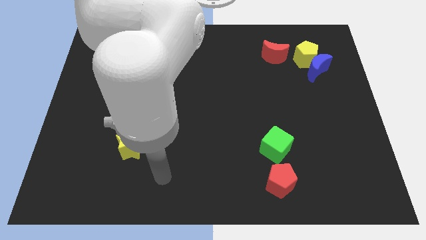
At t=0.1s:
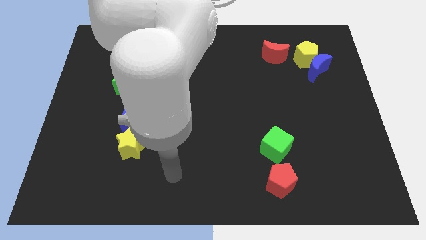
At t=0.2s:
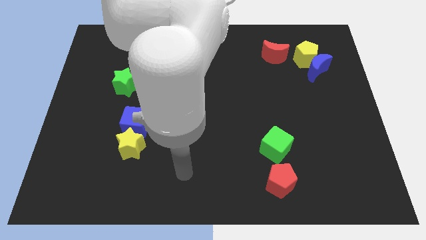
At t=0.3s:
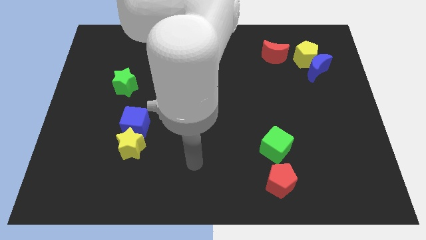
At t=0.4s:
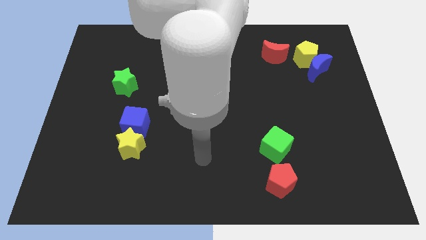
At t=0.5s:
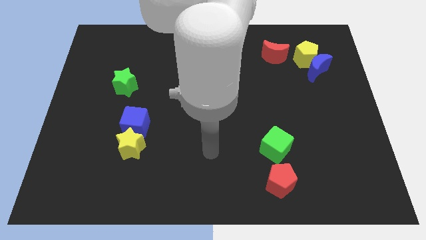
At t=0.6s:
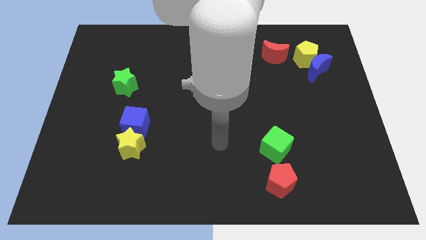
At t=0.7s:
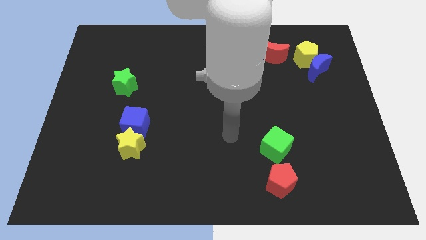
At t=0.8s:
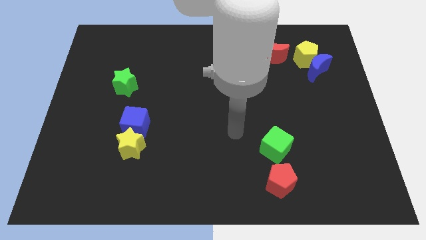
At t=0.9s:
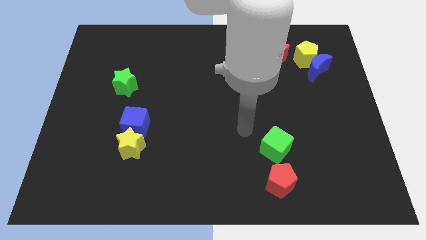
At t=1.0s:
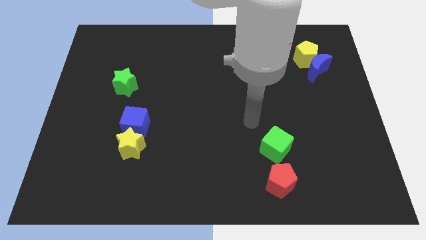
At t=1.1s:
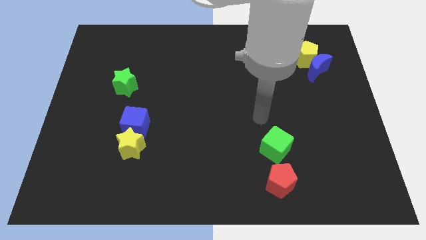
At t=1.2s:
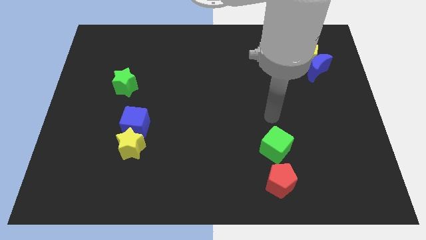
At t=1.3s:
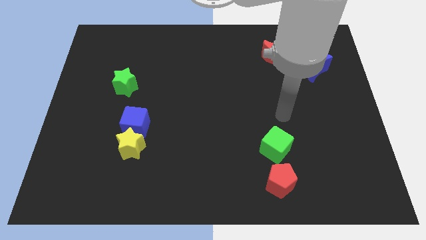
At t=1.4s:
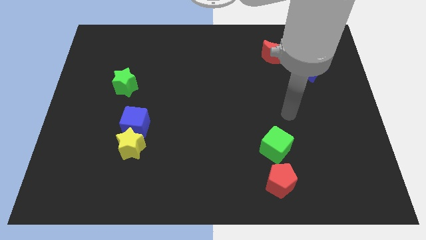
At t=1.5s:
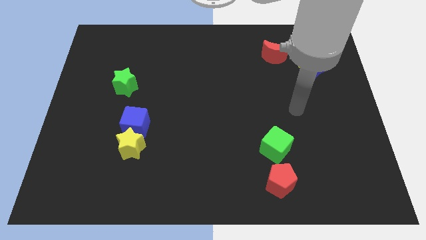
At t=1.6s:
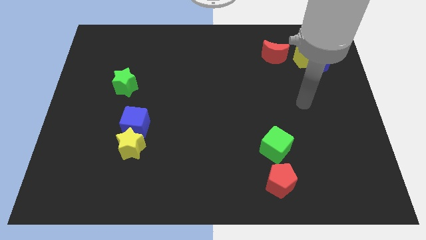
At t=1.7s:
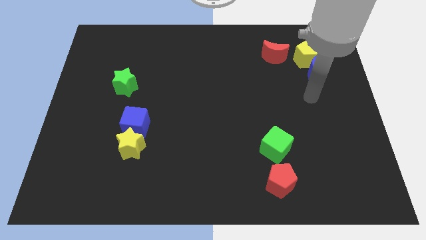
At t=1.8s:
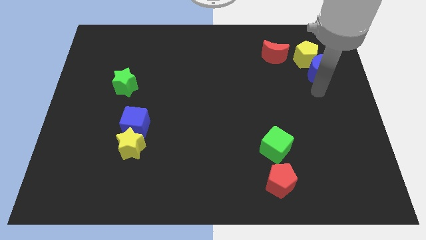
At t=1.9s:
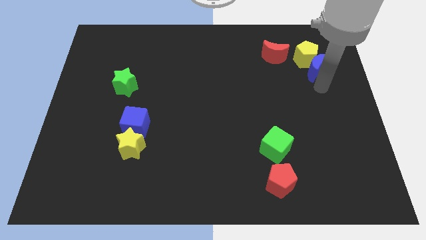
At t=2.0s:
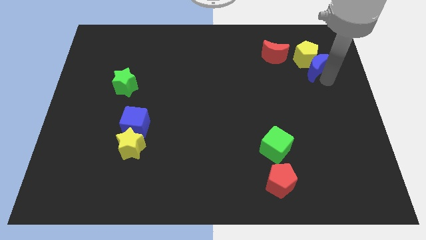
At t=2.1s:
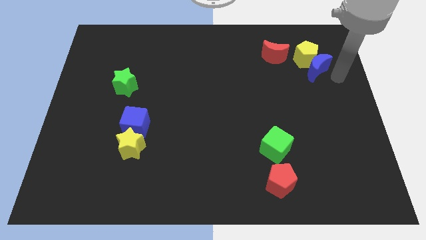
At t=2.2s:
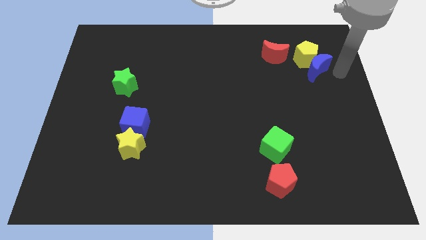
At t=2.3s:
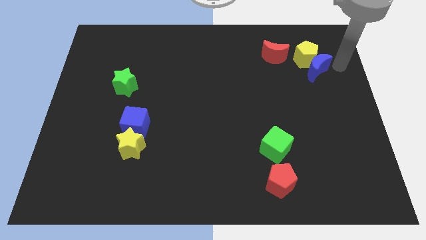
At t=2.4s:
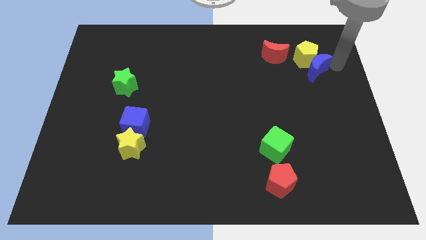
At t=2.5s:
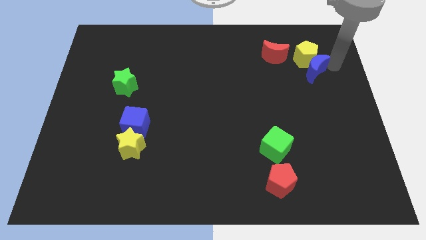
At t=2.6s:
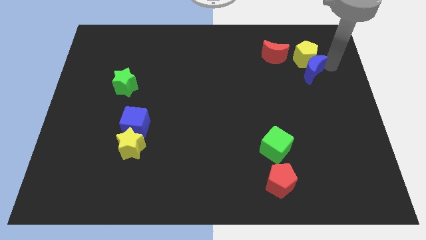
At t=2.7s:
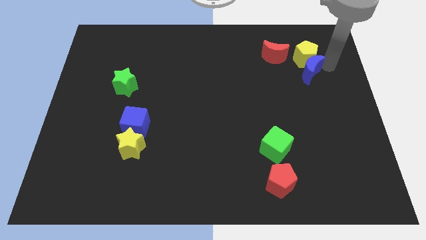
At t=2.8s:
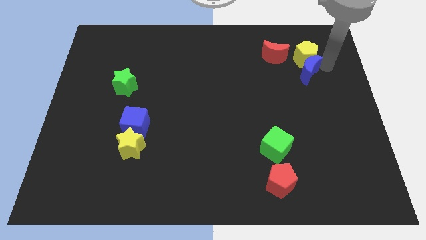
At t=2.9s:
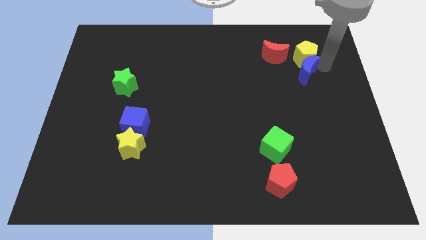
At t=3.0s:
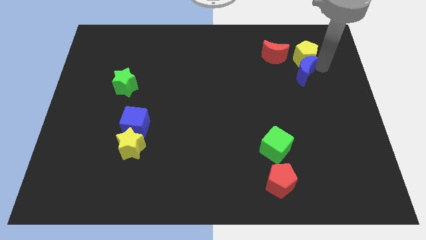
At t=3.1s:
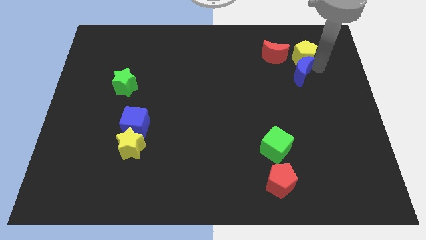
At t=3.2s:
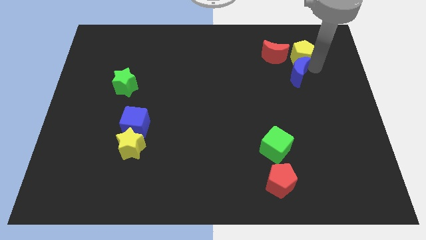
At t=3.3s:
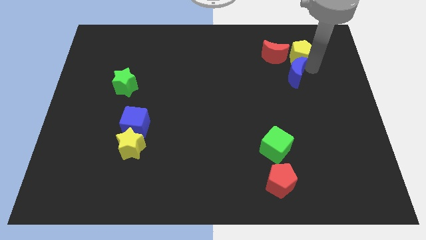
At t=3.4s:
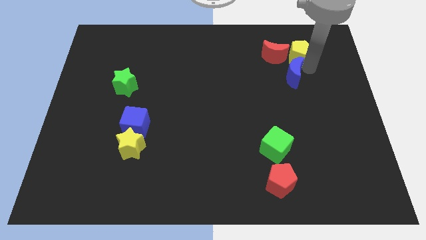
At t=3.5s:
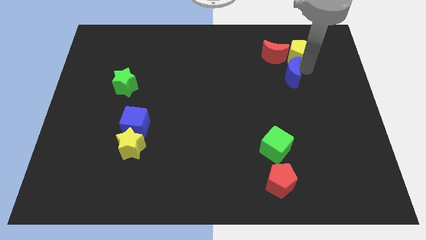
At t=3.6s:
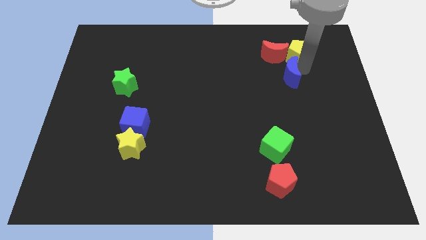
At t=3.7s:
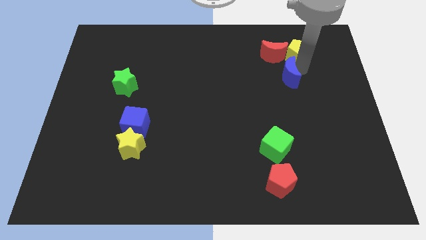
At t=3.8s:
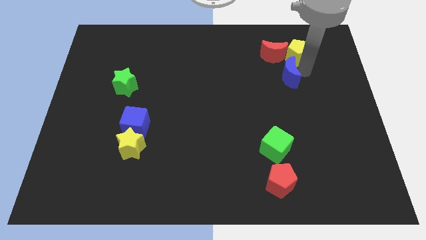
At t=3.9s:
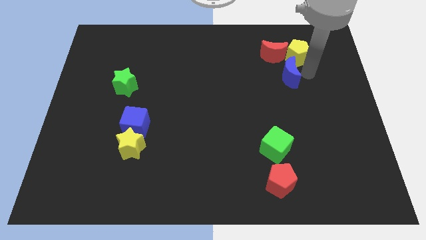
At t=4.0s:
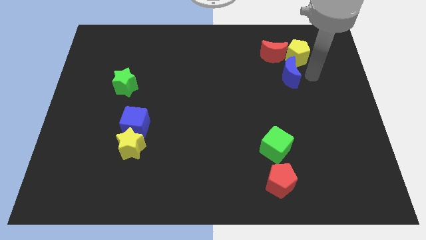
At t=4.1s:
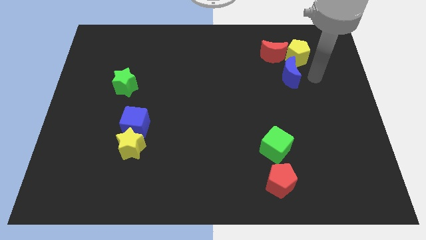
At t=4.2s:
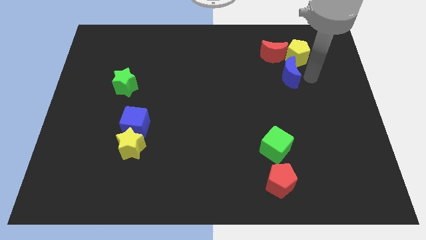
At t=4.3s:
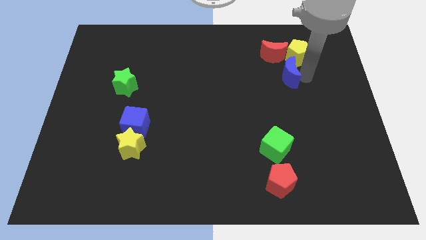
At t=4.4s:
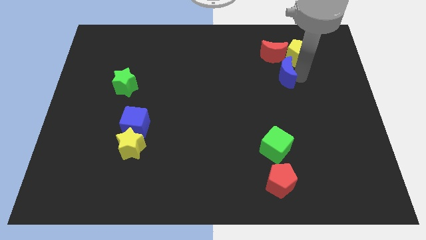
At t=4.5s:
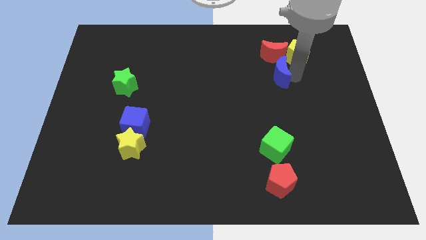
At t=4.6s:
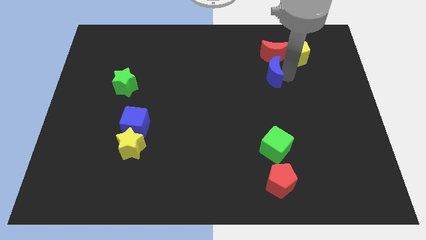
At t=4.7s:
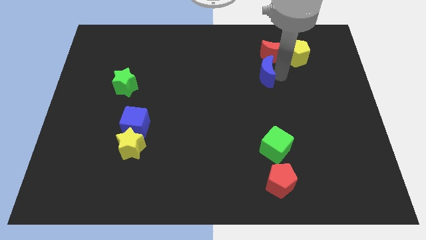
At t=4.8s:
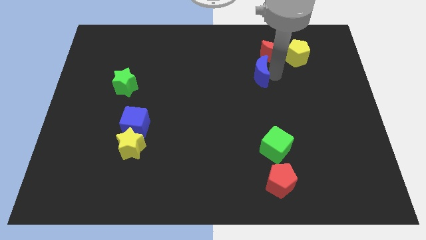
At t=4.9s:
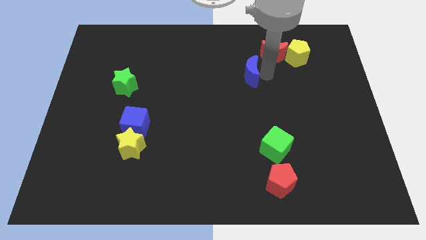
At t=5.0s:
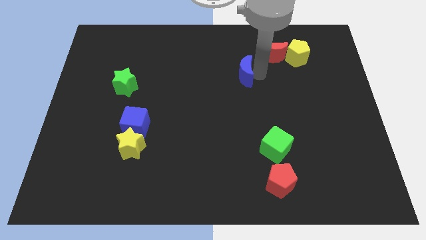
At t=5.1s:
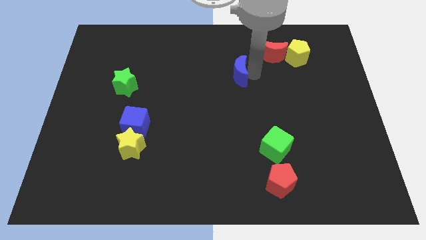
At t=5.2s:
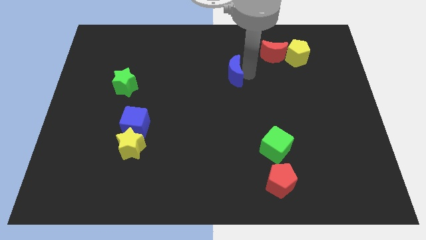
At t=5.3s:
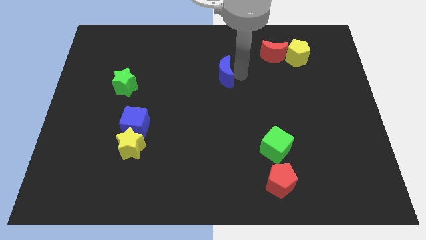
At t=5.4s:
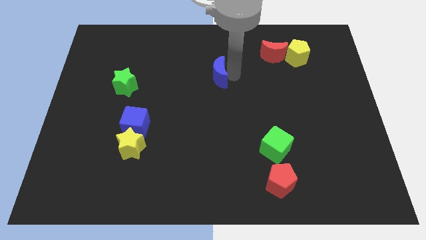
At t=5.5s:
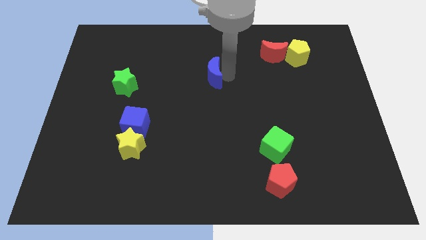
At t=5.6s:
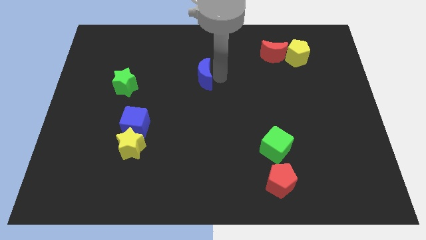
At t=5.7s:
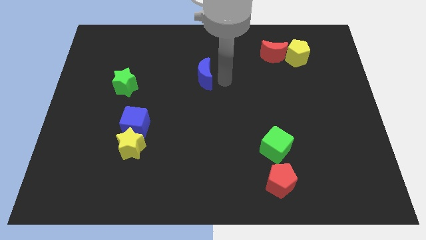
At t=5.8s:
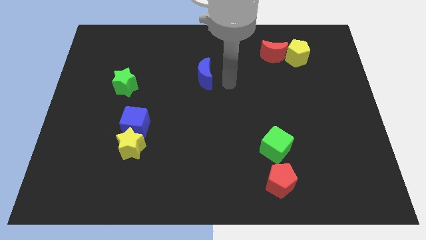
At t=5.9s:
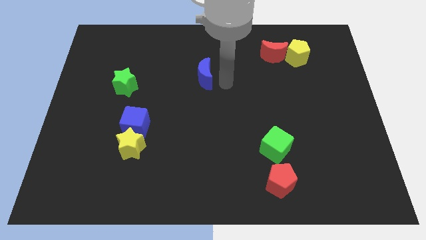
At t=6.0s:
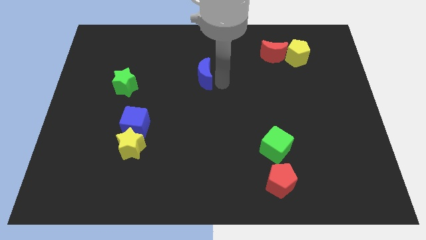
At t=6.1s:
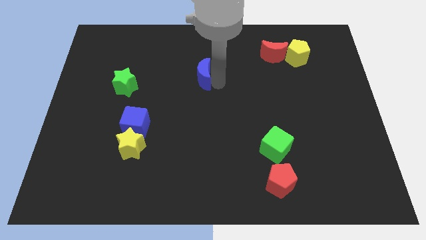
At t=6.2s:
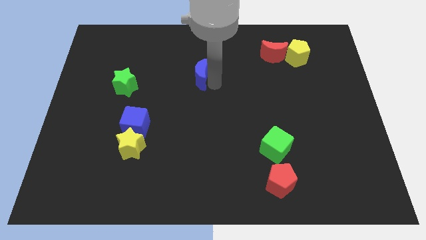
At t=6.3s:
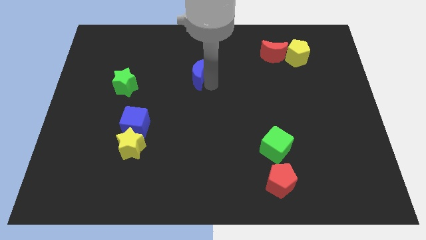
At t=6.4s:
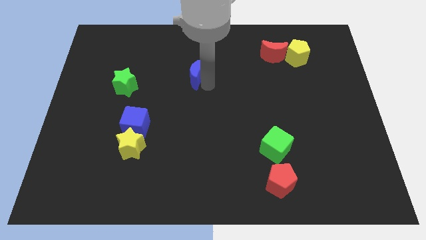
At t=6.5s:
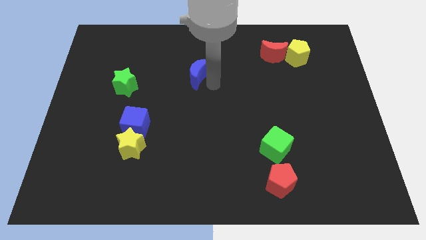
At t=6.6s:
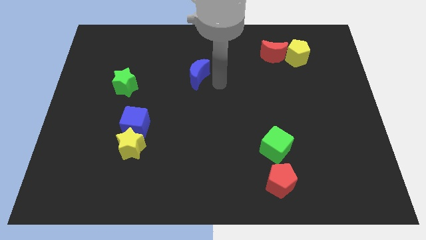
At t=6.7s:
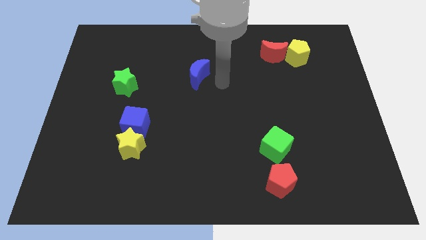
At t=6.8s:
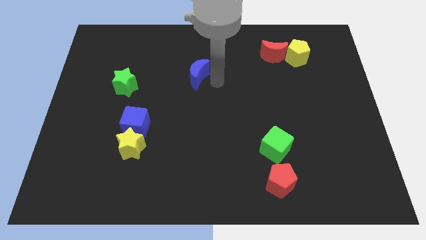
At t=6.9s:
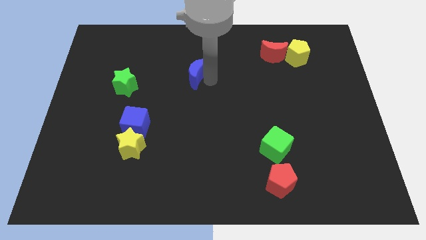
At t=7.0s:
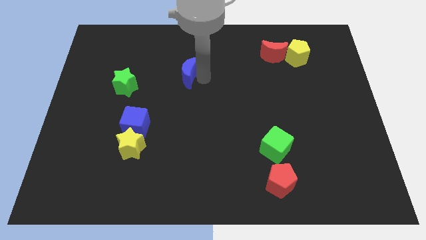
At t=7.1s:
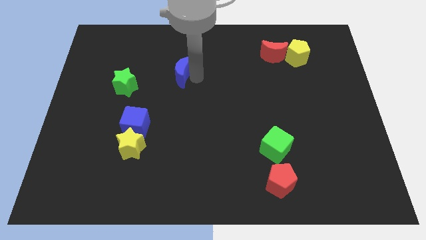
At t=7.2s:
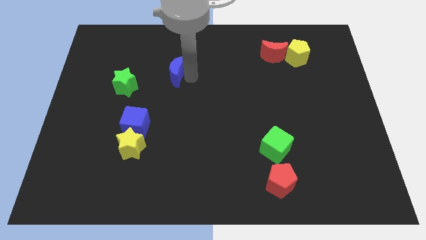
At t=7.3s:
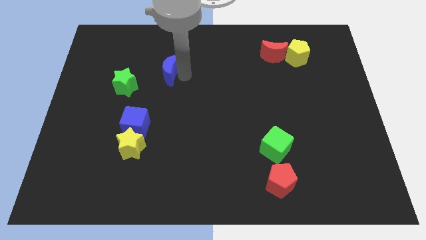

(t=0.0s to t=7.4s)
slide the blue moon to the top right of the green star

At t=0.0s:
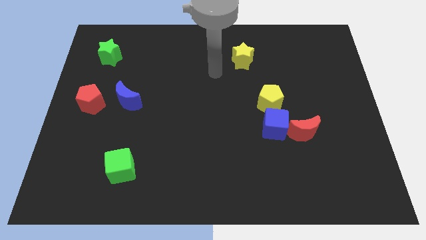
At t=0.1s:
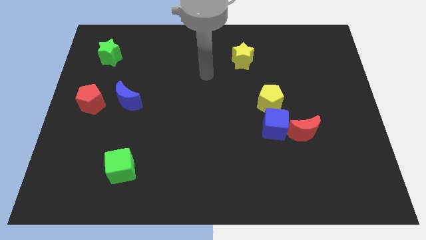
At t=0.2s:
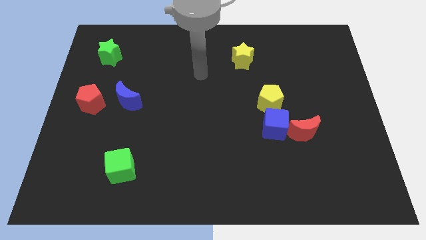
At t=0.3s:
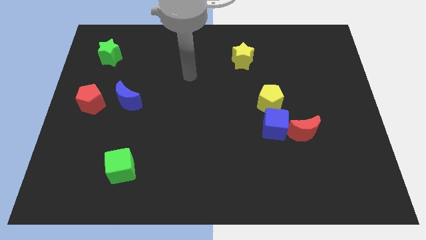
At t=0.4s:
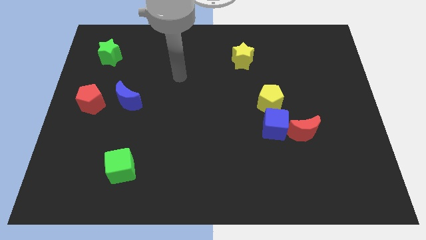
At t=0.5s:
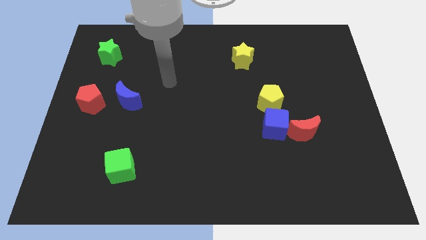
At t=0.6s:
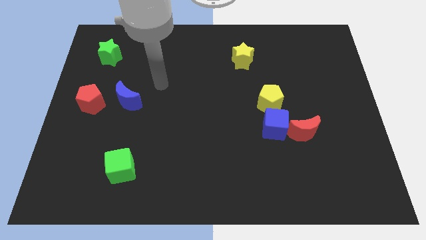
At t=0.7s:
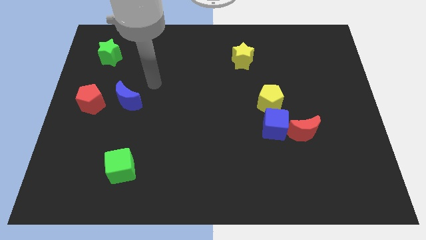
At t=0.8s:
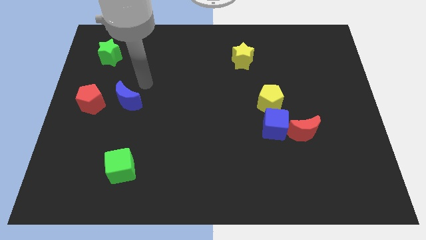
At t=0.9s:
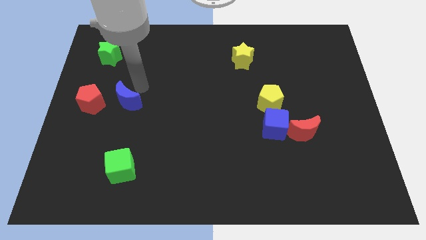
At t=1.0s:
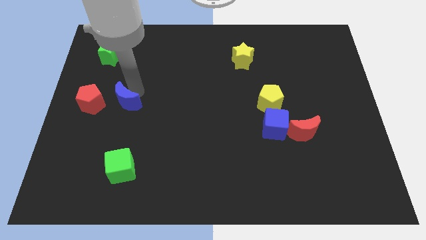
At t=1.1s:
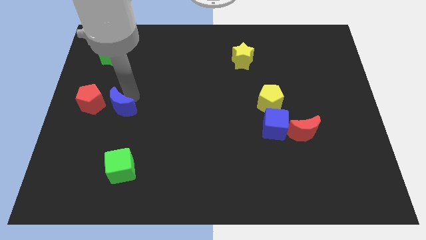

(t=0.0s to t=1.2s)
slide the blue moon to the bottom right of the red pentagon
